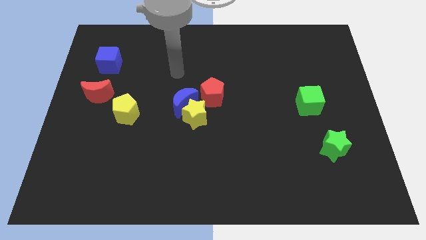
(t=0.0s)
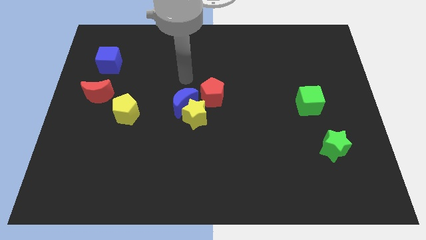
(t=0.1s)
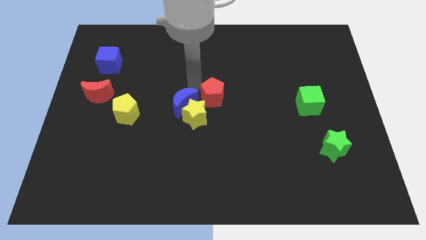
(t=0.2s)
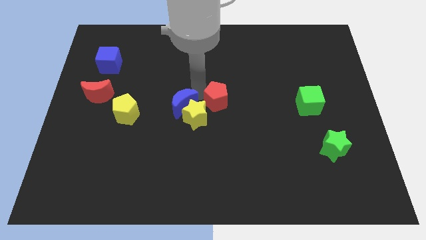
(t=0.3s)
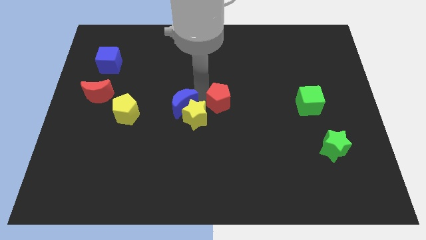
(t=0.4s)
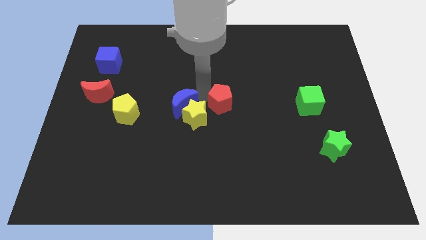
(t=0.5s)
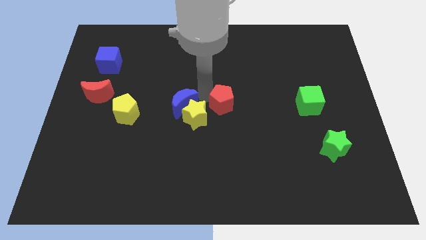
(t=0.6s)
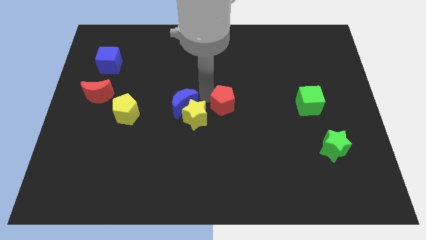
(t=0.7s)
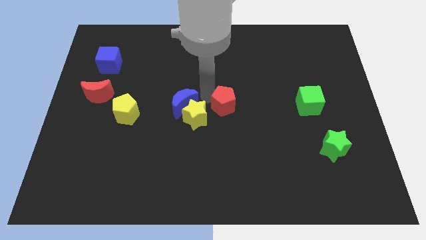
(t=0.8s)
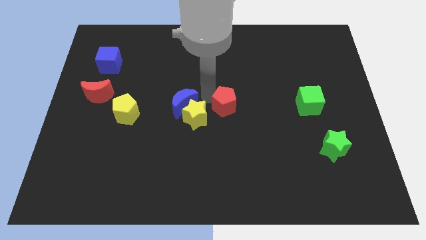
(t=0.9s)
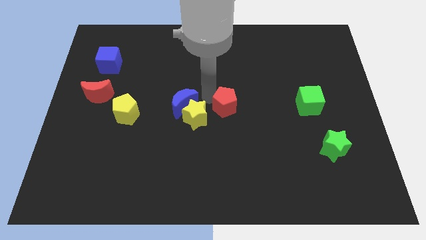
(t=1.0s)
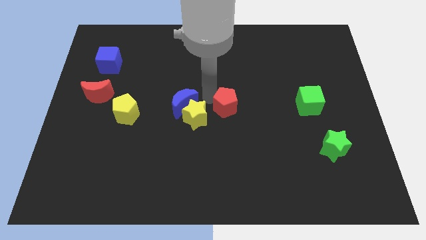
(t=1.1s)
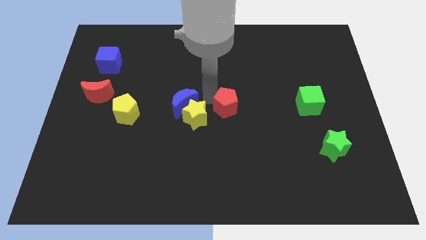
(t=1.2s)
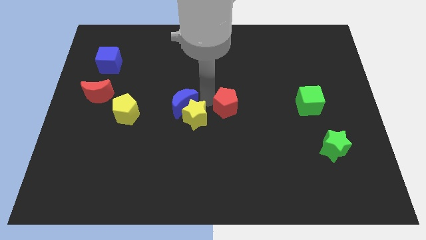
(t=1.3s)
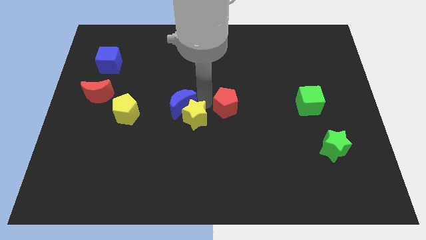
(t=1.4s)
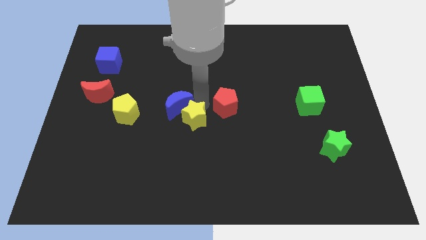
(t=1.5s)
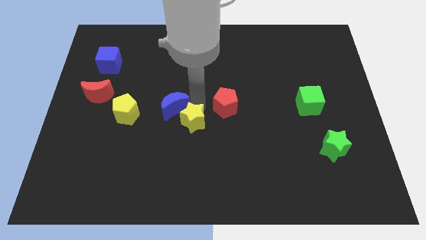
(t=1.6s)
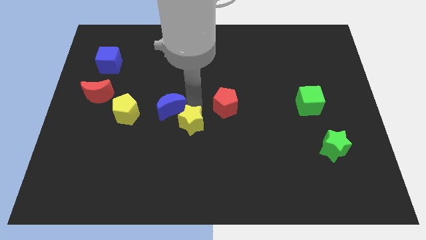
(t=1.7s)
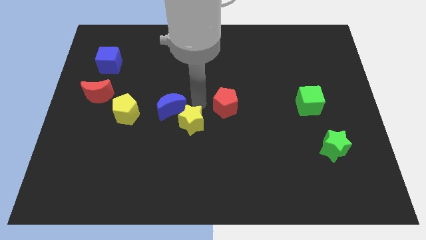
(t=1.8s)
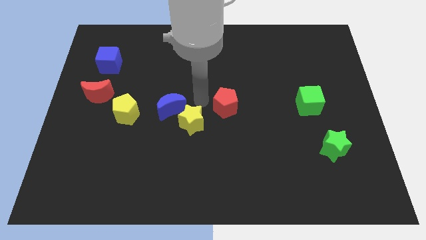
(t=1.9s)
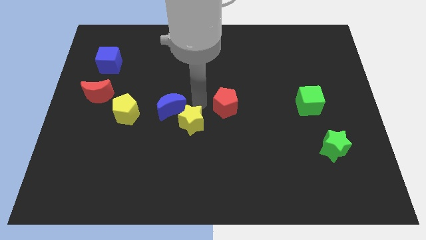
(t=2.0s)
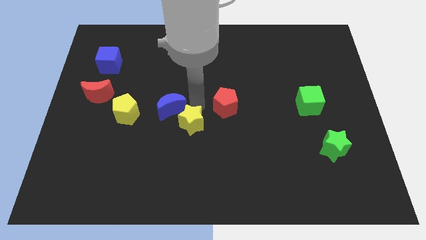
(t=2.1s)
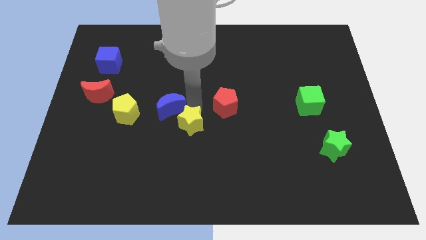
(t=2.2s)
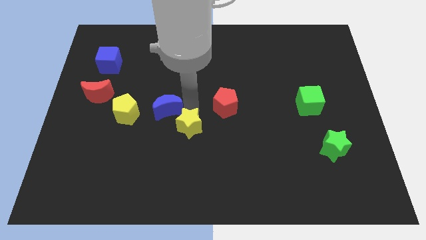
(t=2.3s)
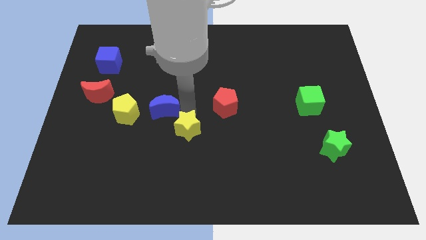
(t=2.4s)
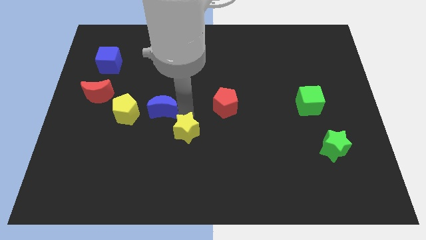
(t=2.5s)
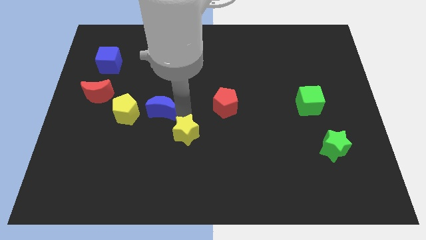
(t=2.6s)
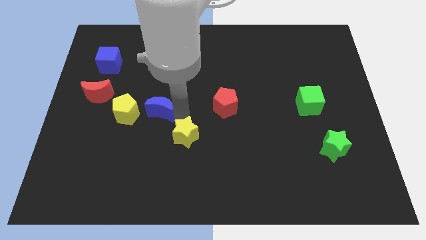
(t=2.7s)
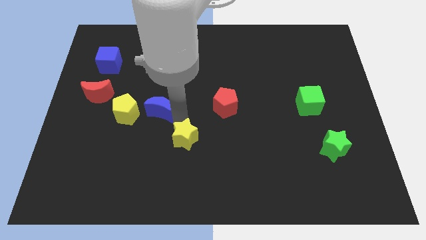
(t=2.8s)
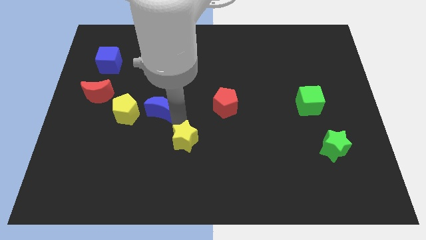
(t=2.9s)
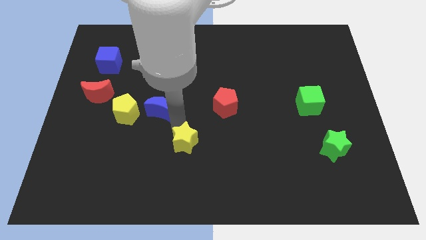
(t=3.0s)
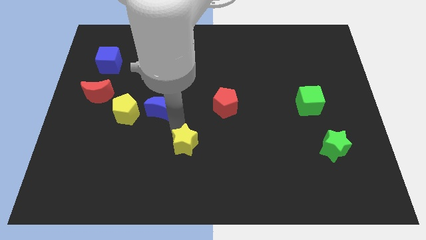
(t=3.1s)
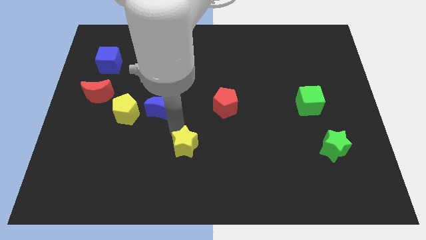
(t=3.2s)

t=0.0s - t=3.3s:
pull the yellow star apart from the blue moon and red pentagon

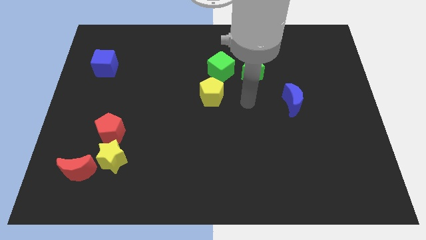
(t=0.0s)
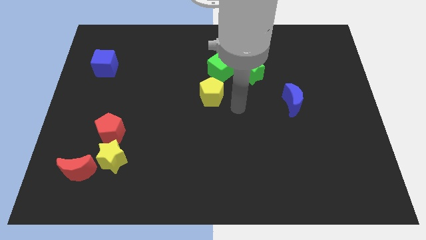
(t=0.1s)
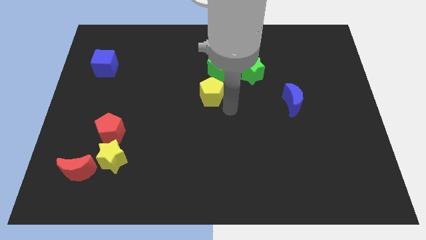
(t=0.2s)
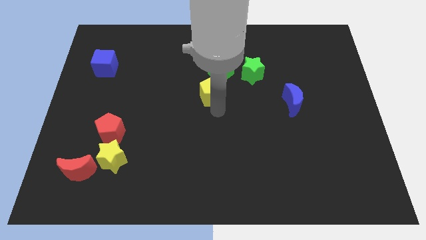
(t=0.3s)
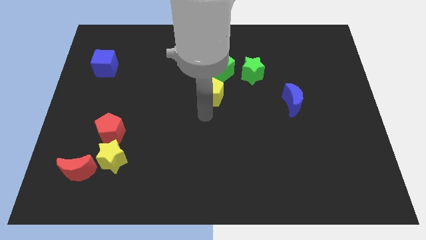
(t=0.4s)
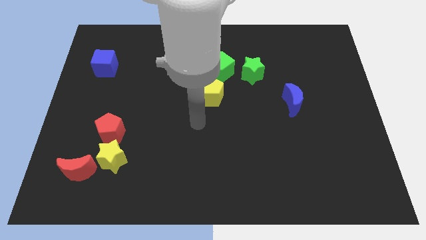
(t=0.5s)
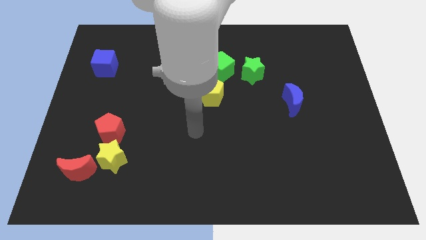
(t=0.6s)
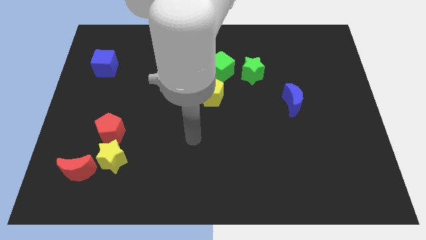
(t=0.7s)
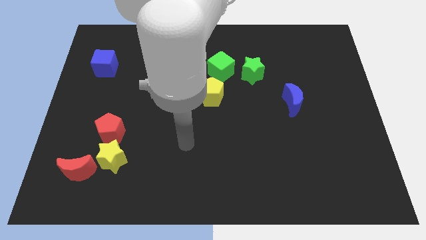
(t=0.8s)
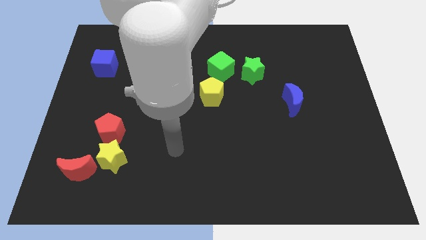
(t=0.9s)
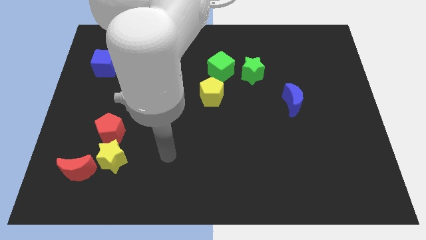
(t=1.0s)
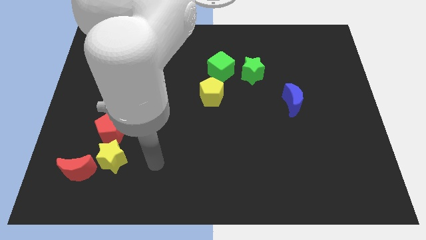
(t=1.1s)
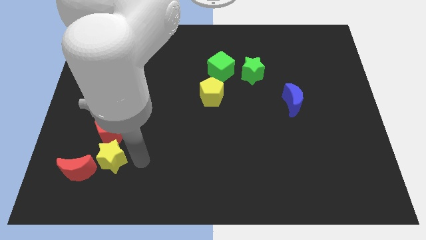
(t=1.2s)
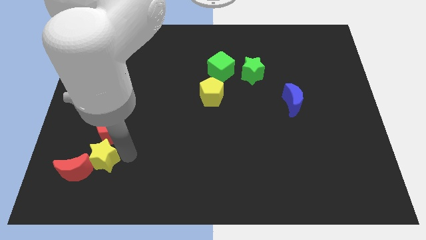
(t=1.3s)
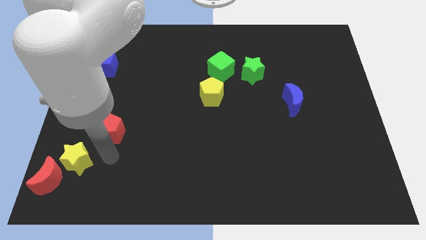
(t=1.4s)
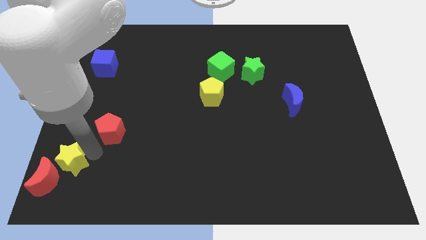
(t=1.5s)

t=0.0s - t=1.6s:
pull the red pentagon apart from the yellow star

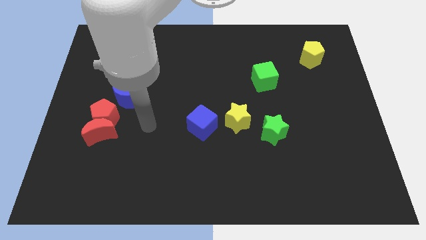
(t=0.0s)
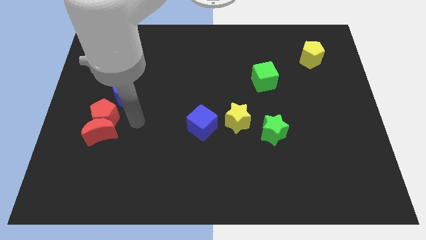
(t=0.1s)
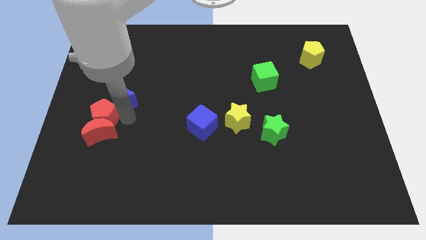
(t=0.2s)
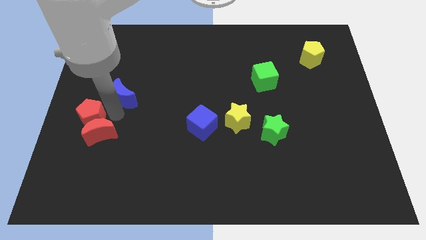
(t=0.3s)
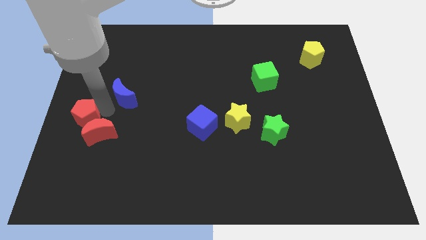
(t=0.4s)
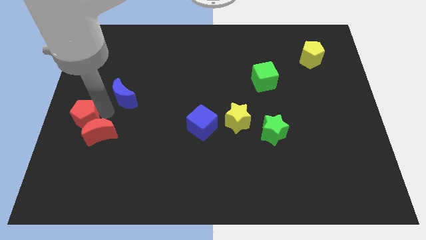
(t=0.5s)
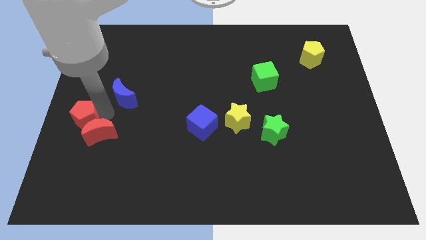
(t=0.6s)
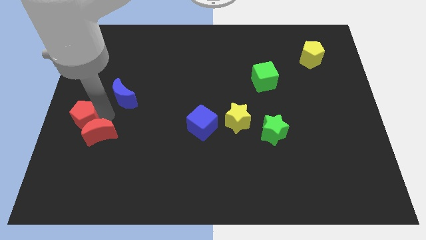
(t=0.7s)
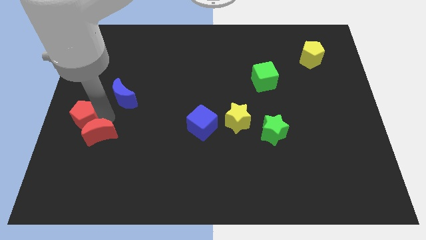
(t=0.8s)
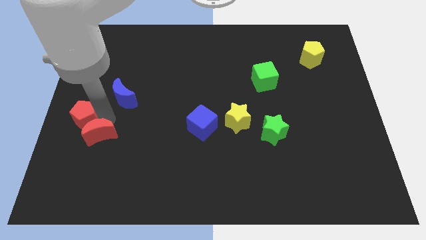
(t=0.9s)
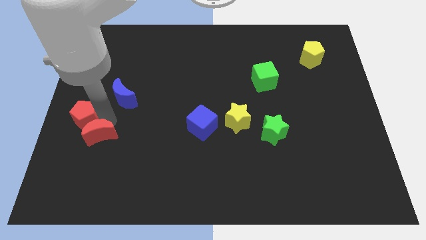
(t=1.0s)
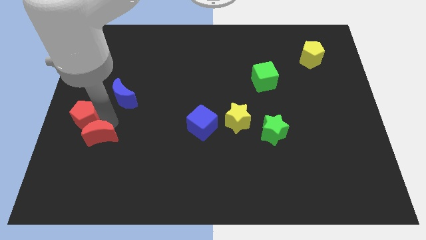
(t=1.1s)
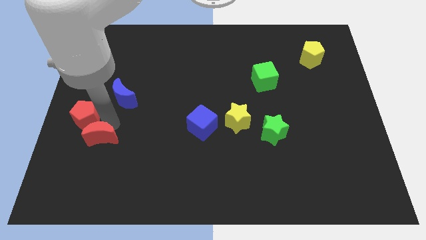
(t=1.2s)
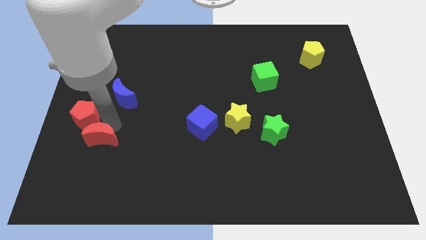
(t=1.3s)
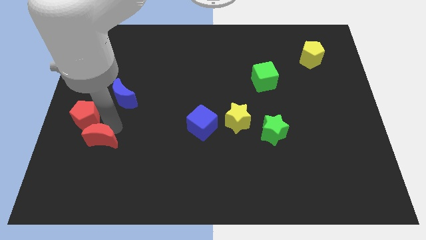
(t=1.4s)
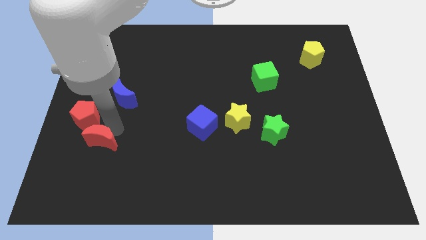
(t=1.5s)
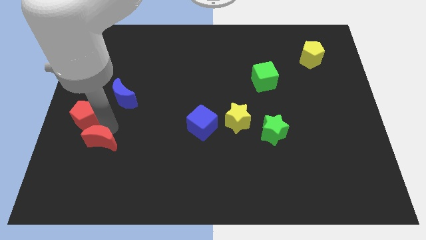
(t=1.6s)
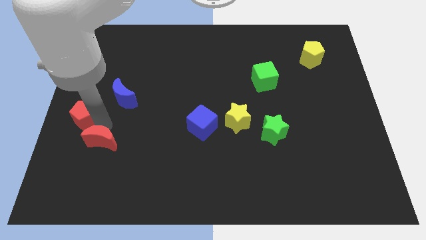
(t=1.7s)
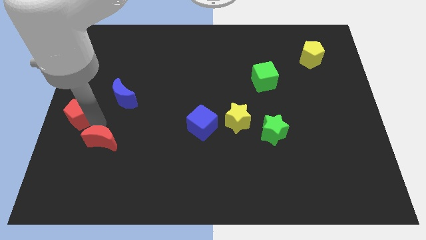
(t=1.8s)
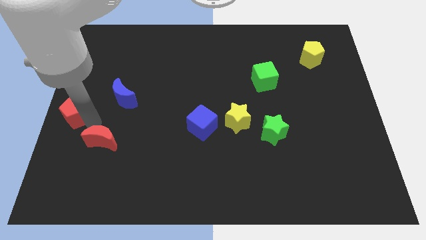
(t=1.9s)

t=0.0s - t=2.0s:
pull the red moon apart from the red pentagon

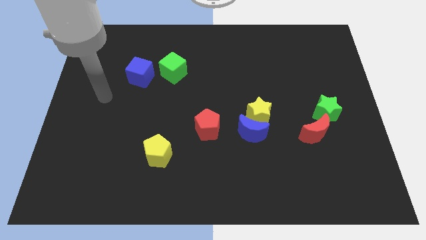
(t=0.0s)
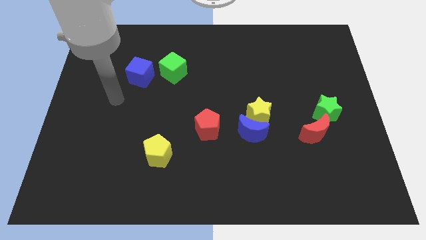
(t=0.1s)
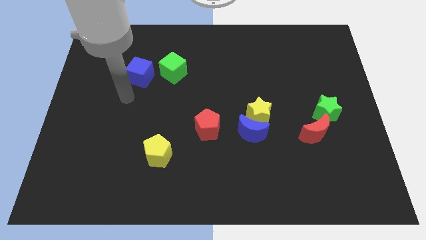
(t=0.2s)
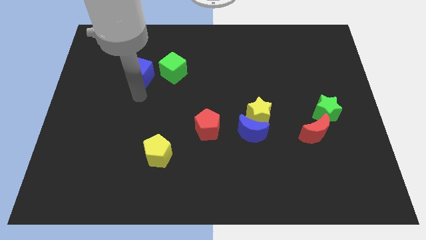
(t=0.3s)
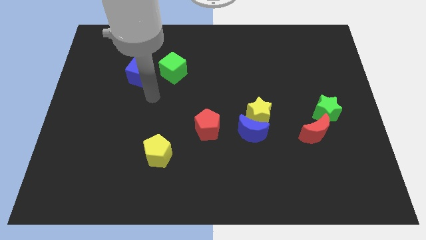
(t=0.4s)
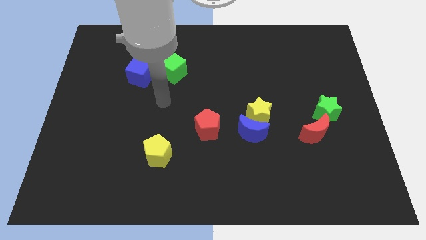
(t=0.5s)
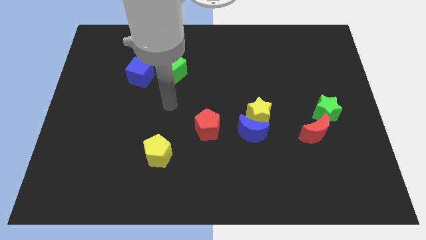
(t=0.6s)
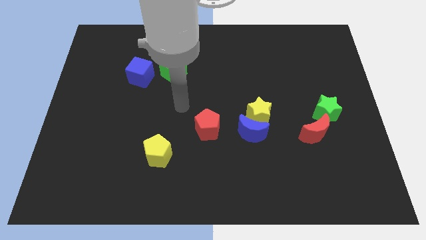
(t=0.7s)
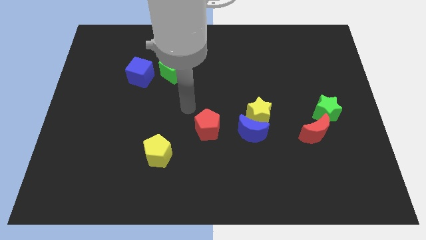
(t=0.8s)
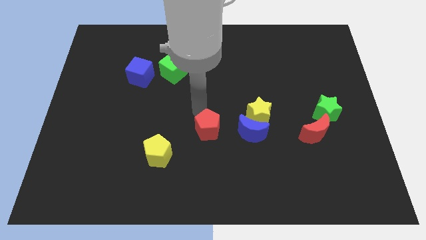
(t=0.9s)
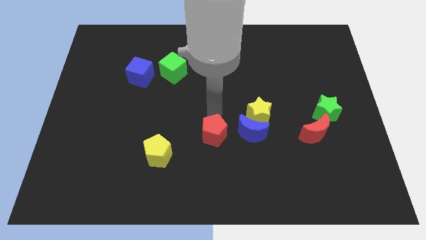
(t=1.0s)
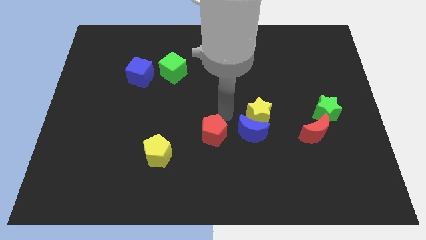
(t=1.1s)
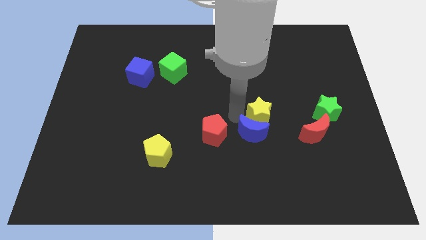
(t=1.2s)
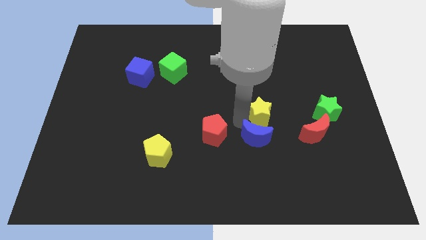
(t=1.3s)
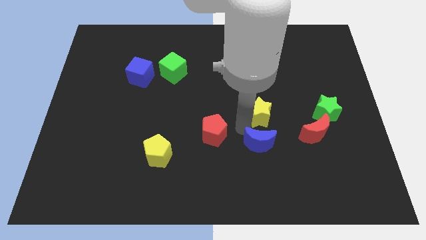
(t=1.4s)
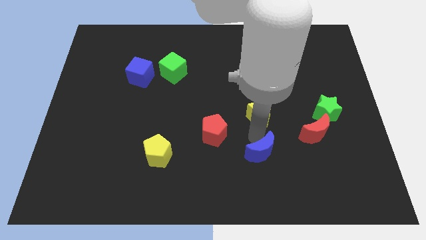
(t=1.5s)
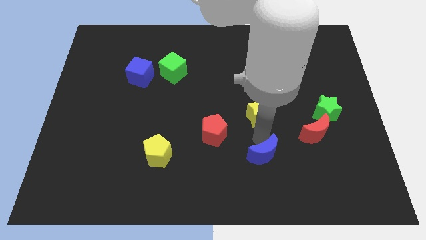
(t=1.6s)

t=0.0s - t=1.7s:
separate the yellow star from the blue moon

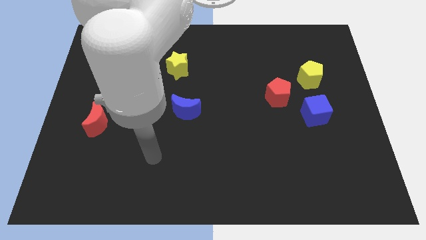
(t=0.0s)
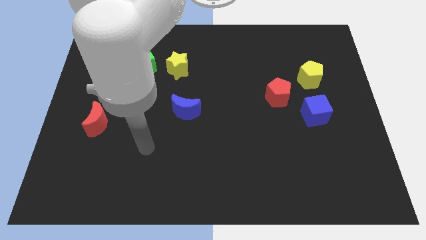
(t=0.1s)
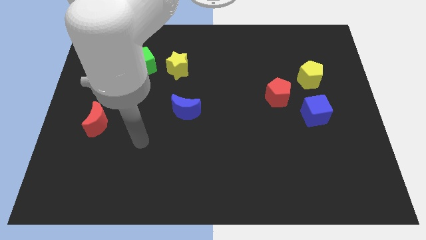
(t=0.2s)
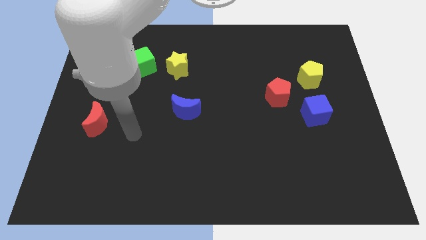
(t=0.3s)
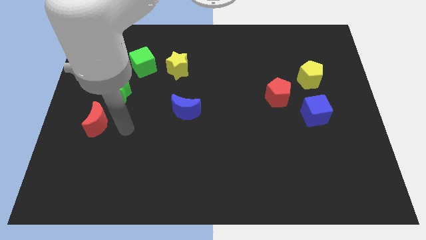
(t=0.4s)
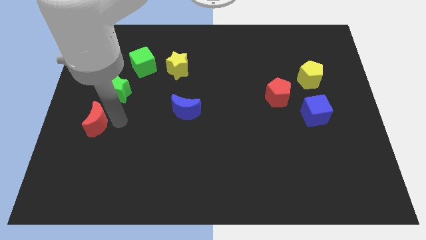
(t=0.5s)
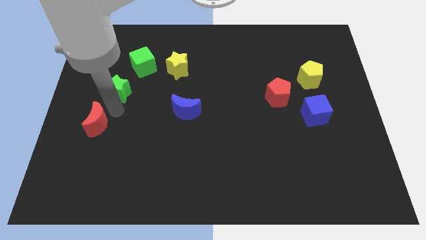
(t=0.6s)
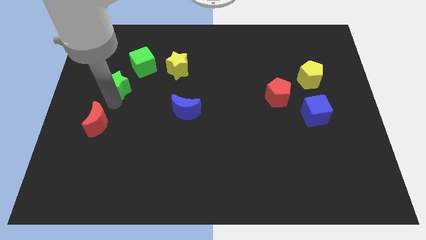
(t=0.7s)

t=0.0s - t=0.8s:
pull the red moon apart from the green star
